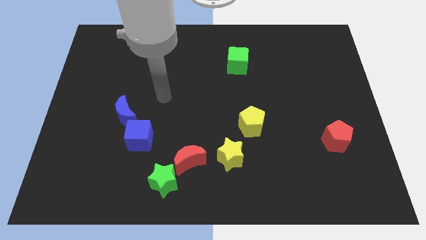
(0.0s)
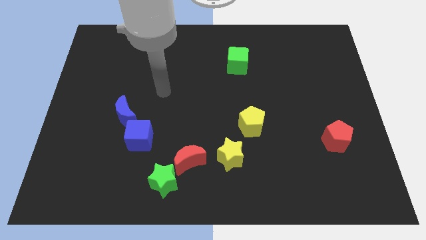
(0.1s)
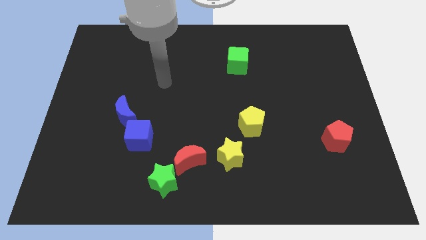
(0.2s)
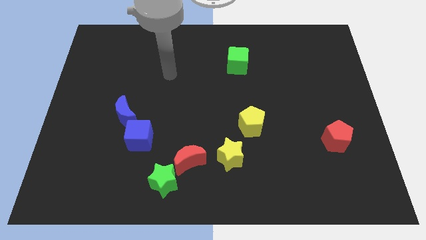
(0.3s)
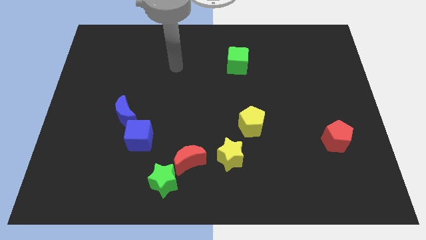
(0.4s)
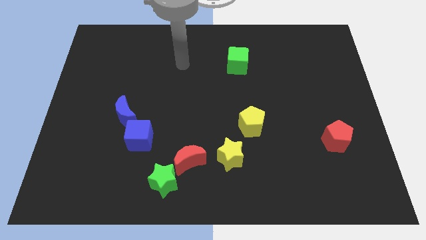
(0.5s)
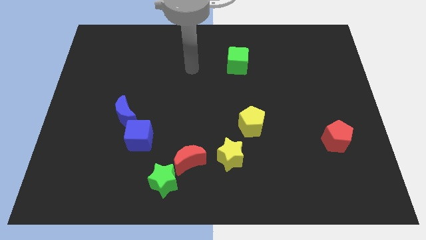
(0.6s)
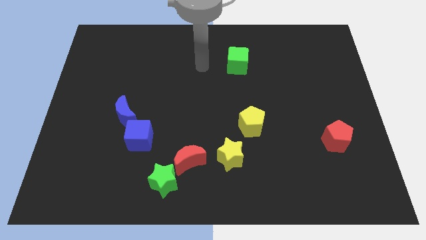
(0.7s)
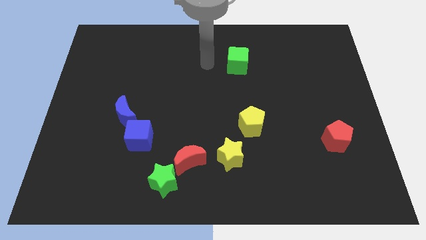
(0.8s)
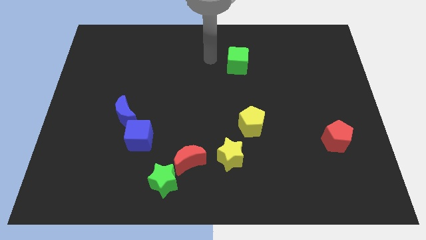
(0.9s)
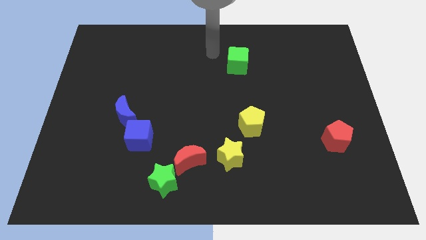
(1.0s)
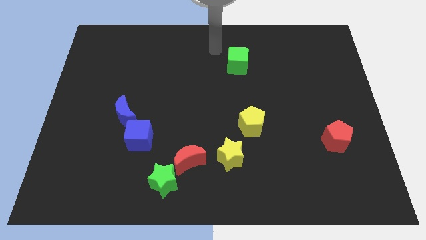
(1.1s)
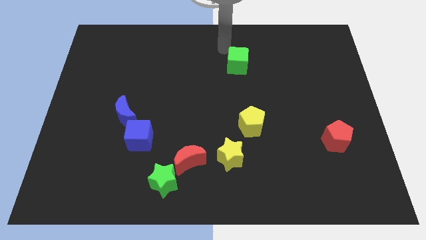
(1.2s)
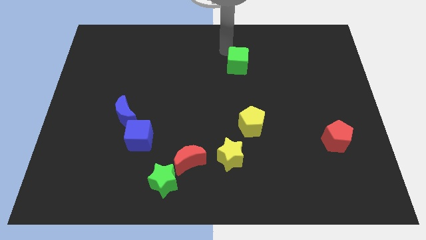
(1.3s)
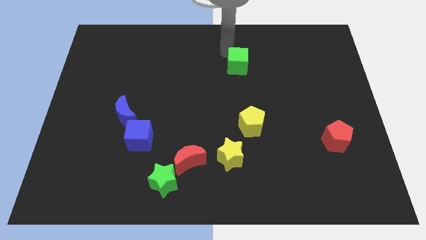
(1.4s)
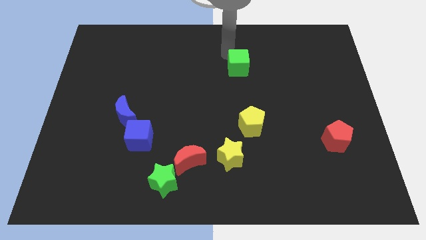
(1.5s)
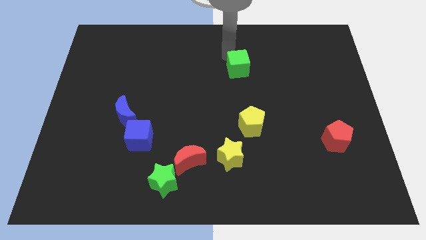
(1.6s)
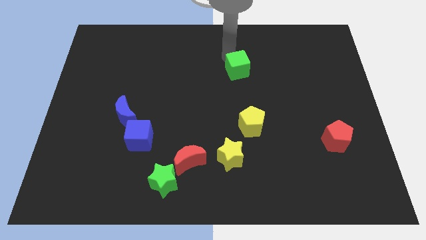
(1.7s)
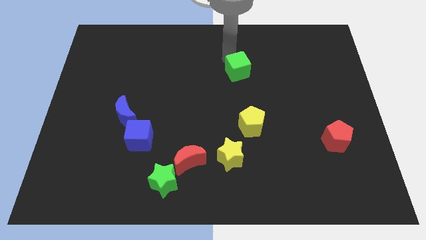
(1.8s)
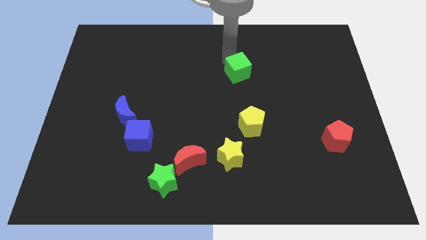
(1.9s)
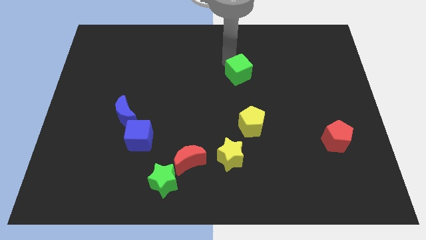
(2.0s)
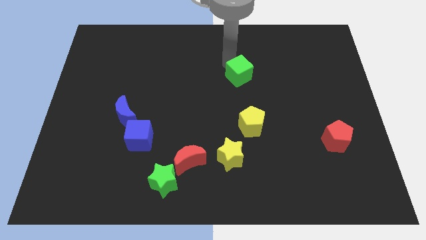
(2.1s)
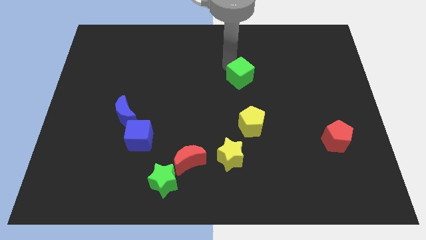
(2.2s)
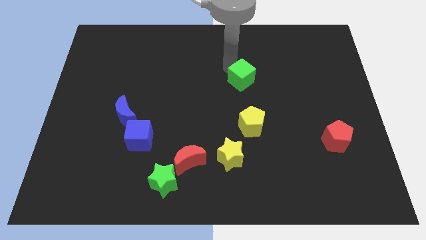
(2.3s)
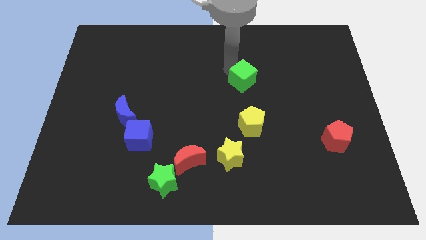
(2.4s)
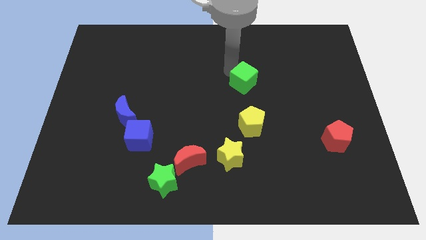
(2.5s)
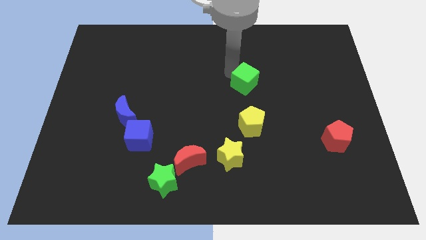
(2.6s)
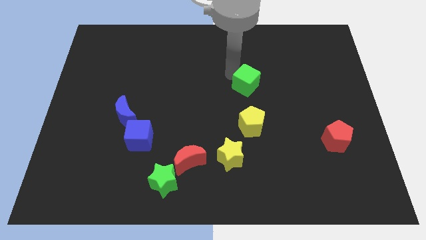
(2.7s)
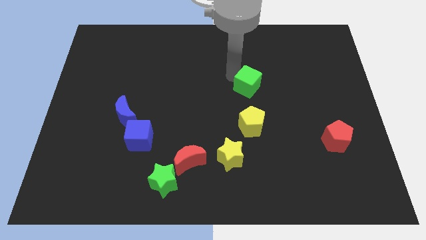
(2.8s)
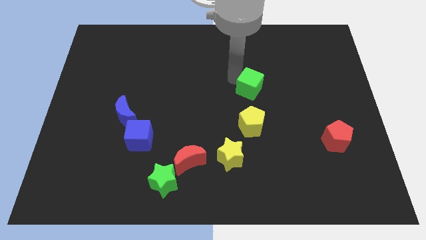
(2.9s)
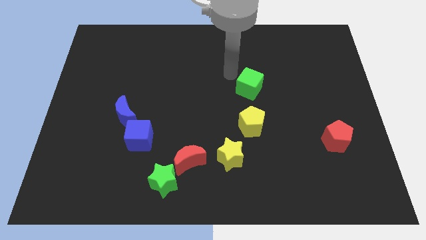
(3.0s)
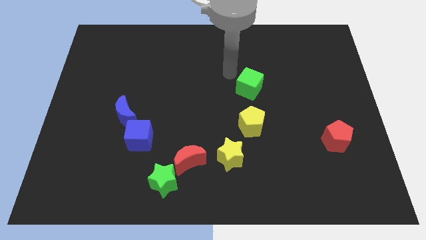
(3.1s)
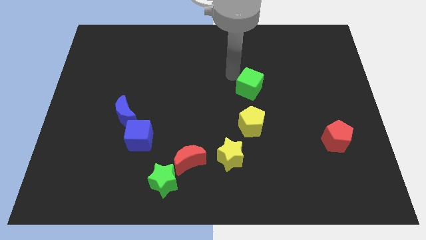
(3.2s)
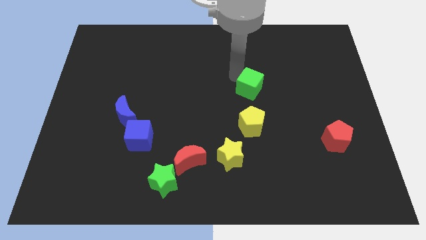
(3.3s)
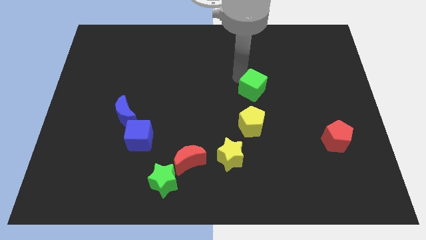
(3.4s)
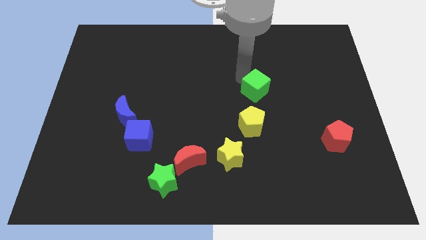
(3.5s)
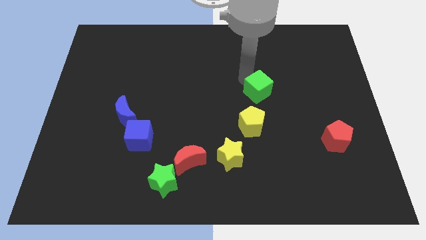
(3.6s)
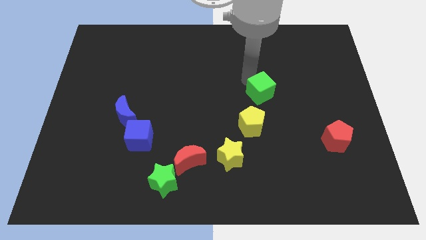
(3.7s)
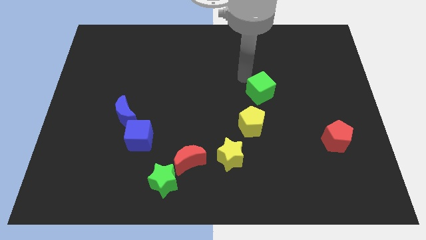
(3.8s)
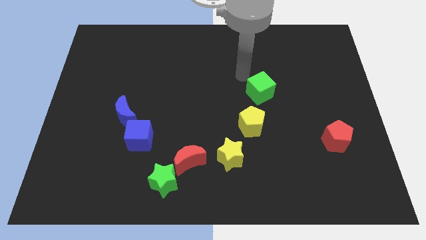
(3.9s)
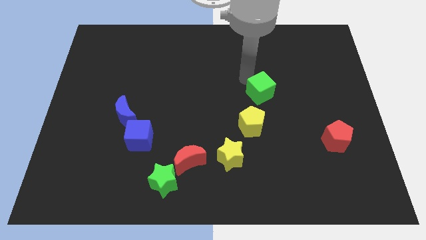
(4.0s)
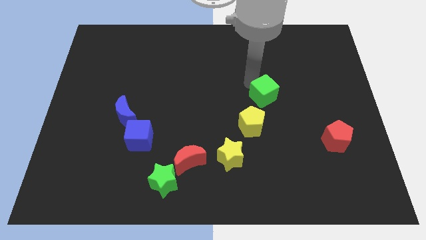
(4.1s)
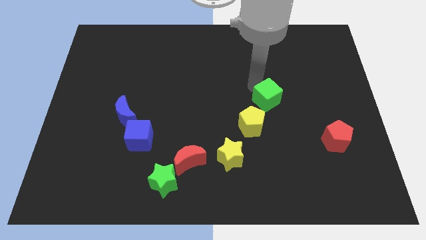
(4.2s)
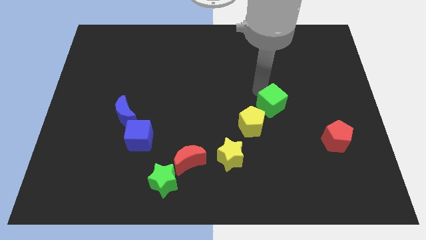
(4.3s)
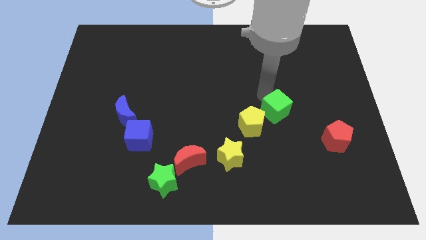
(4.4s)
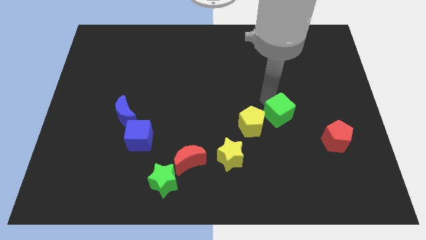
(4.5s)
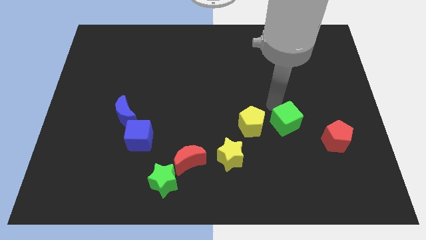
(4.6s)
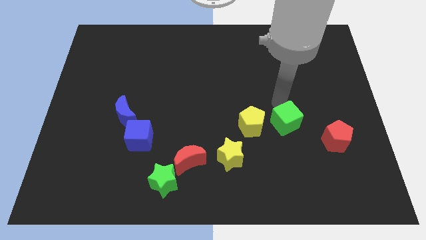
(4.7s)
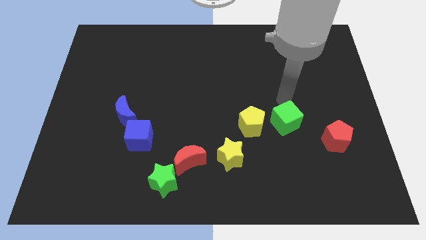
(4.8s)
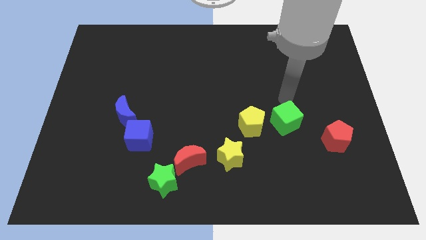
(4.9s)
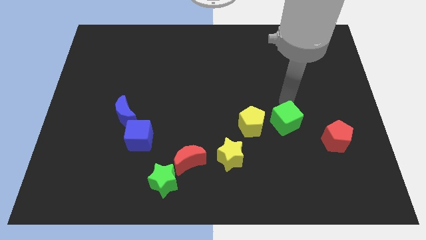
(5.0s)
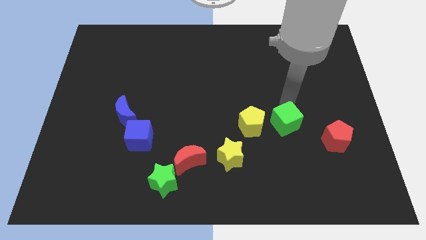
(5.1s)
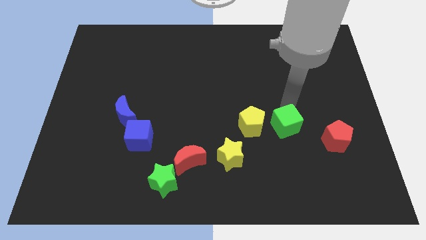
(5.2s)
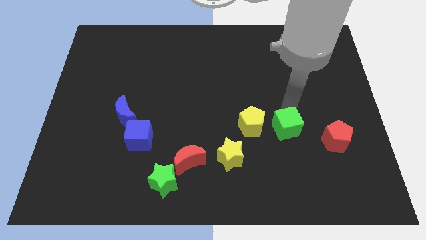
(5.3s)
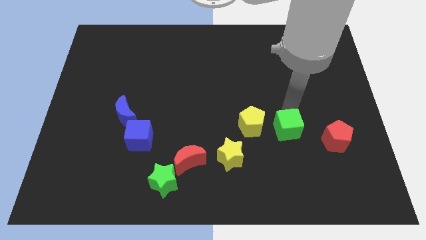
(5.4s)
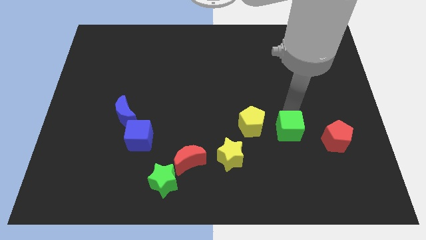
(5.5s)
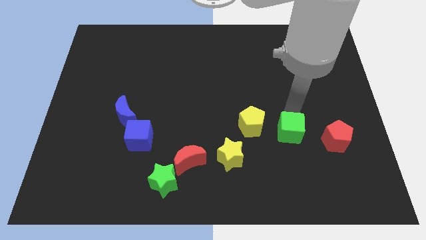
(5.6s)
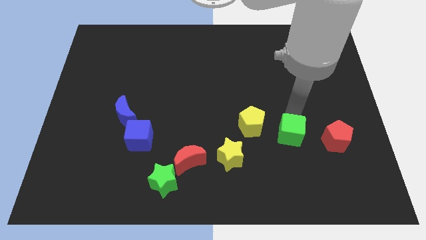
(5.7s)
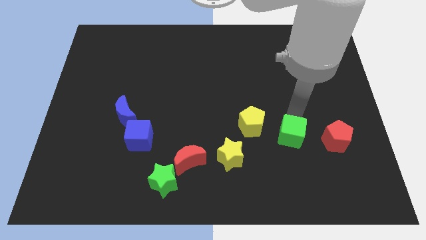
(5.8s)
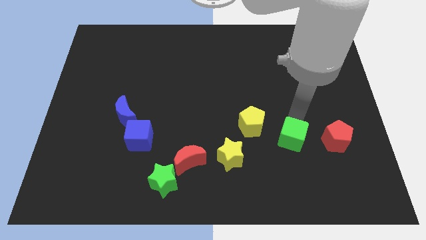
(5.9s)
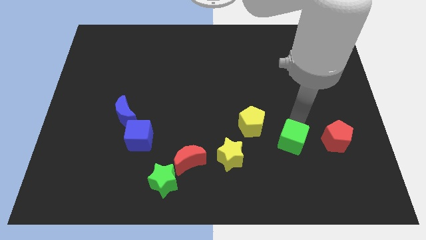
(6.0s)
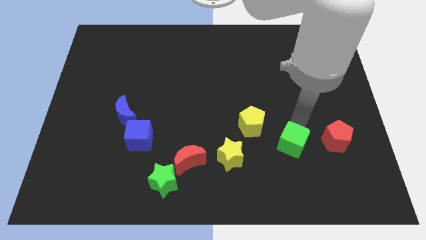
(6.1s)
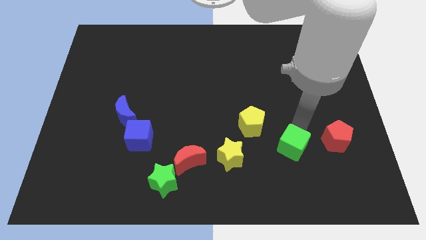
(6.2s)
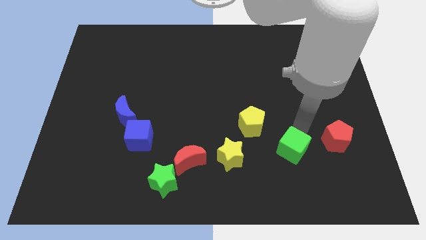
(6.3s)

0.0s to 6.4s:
slide the green cube downwards

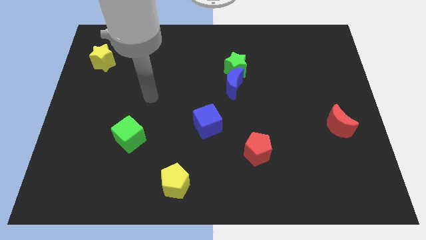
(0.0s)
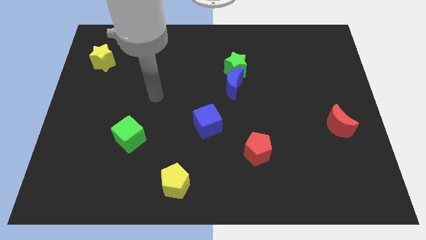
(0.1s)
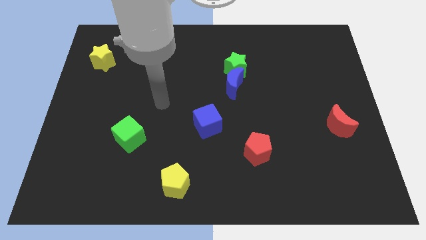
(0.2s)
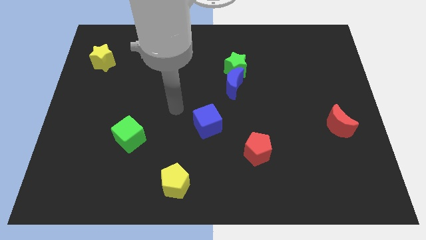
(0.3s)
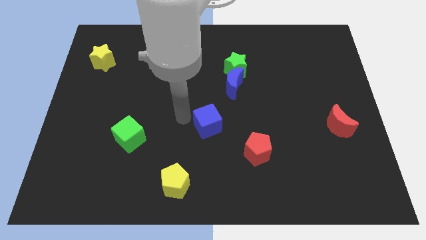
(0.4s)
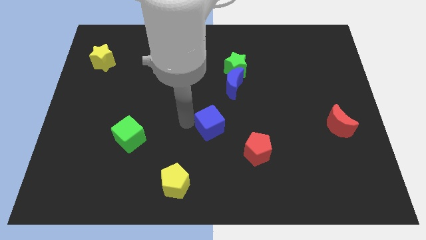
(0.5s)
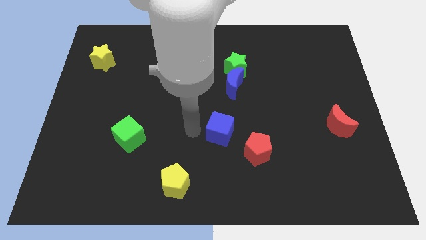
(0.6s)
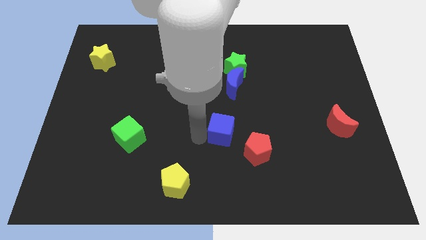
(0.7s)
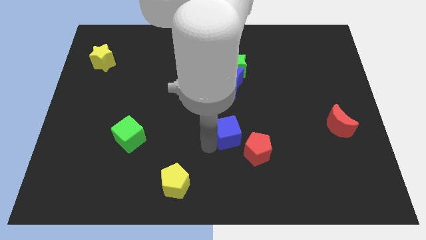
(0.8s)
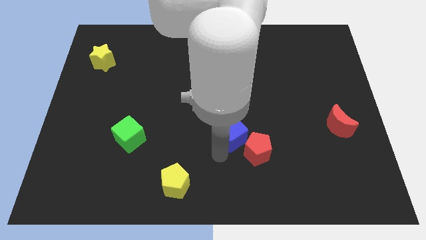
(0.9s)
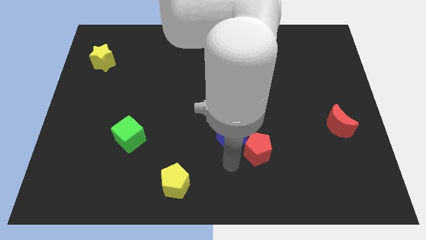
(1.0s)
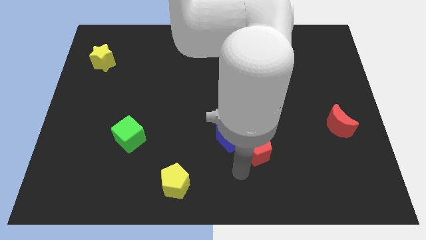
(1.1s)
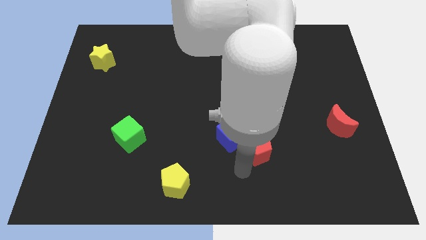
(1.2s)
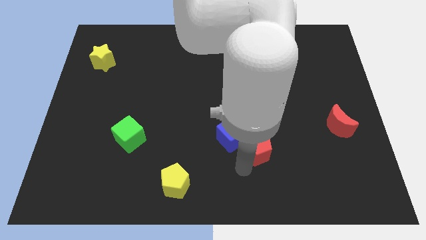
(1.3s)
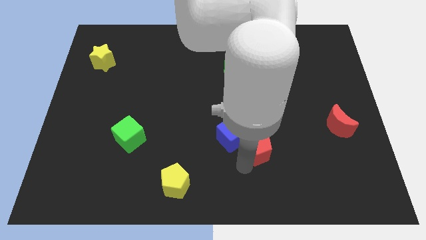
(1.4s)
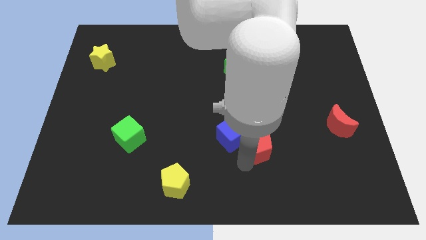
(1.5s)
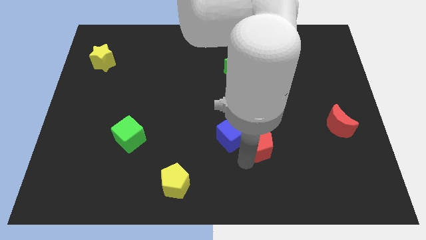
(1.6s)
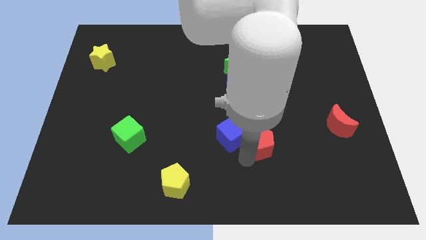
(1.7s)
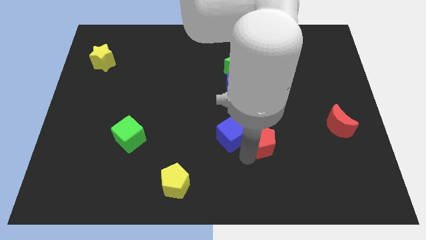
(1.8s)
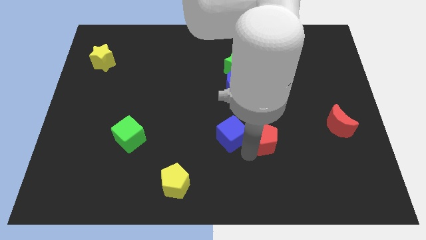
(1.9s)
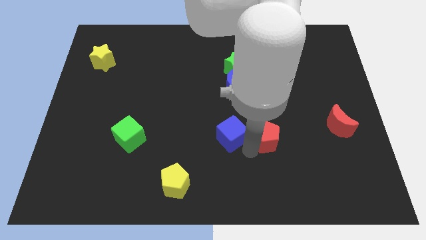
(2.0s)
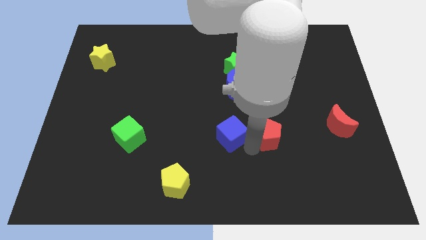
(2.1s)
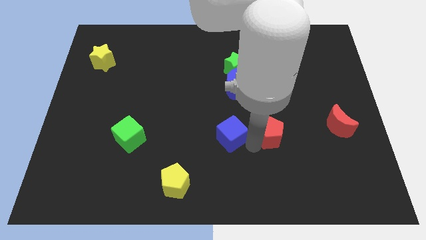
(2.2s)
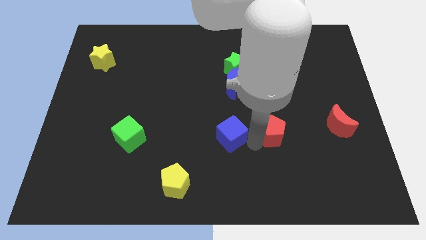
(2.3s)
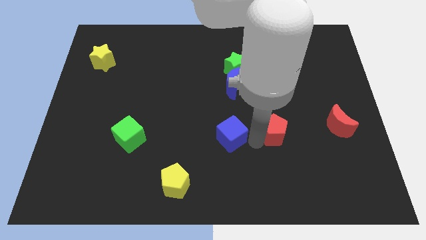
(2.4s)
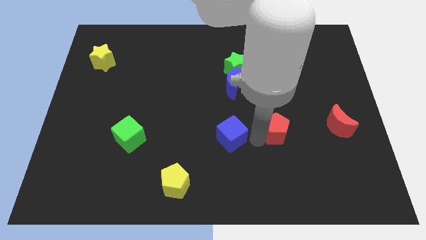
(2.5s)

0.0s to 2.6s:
slightly push the red pentagon up and right diagonally
